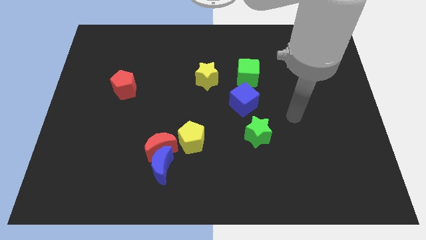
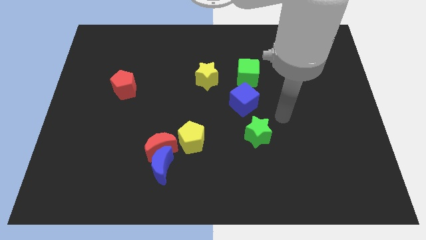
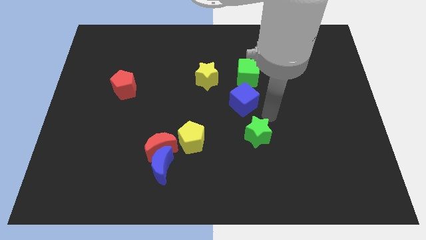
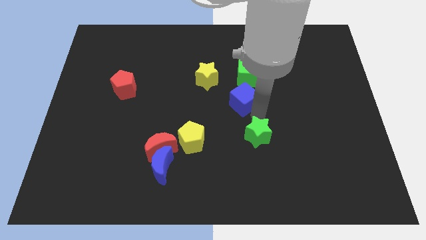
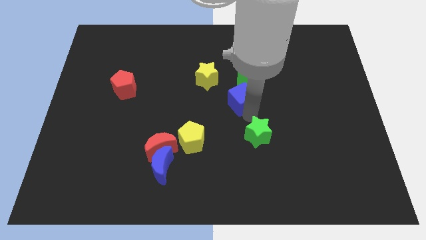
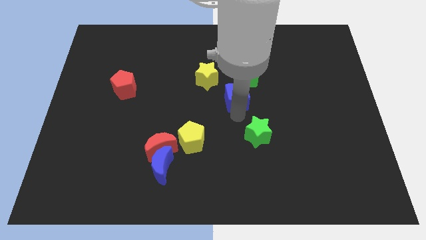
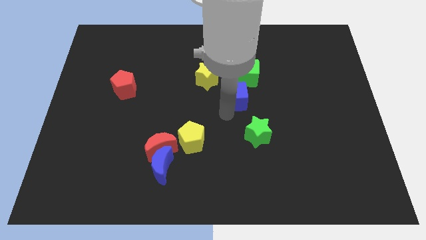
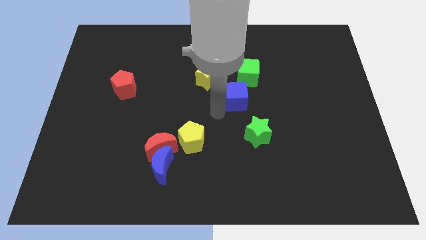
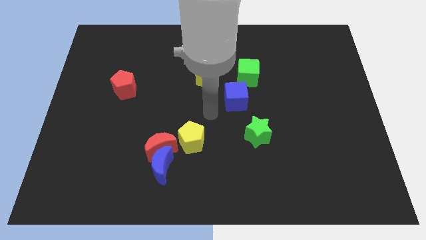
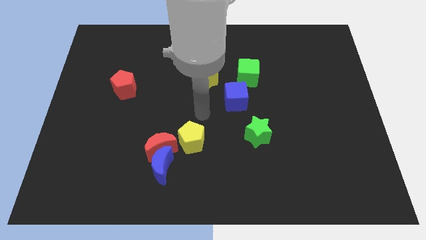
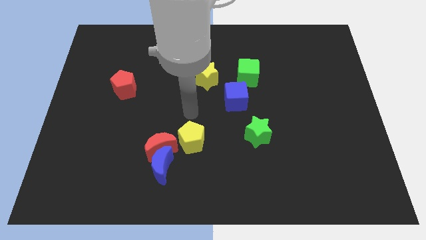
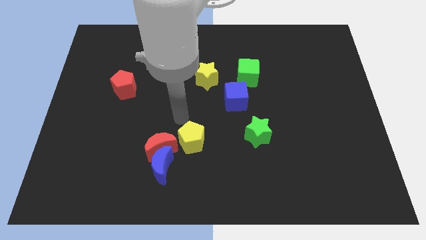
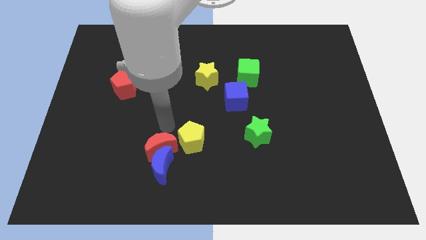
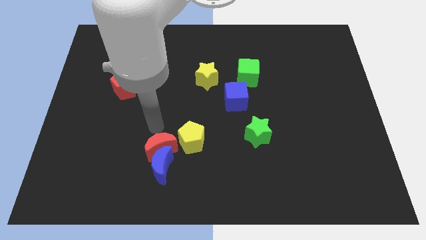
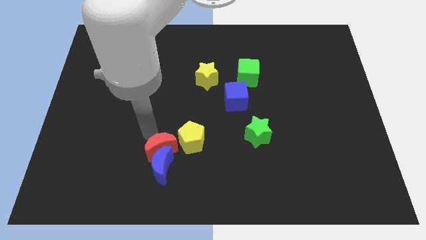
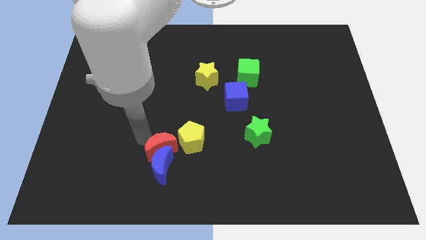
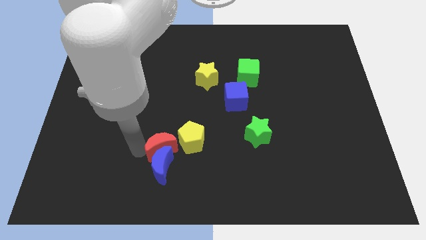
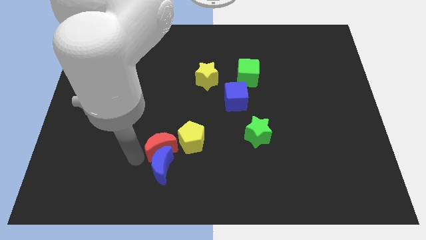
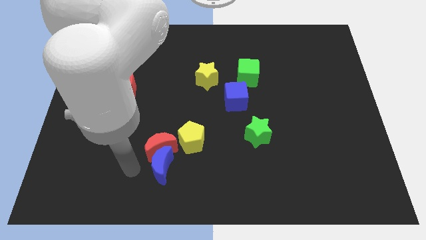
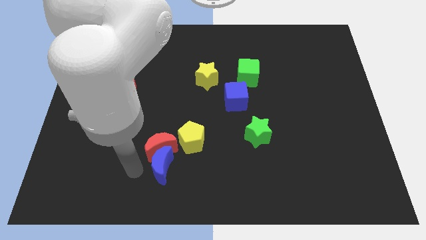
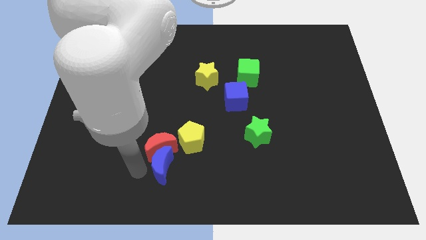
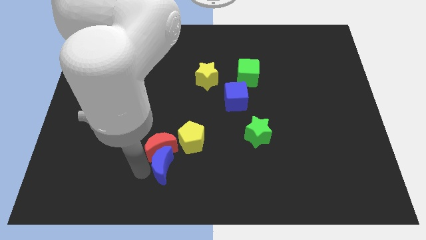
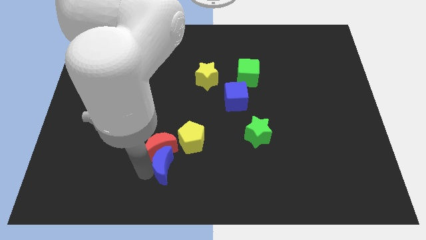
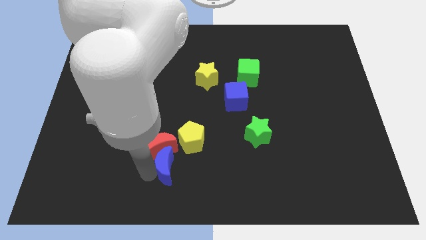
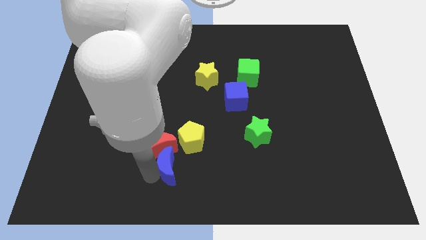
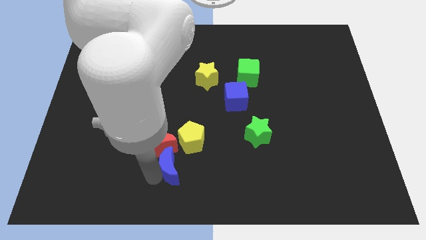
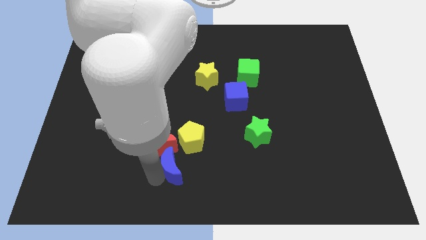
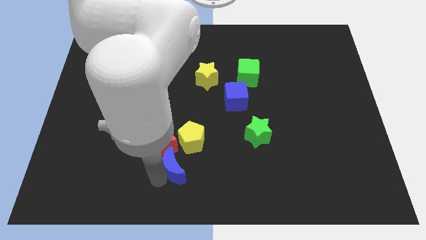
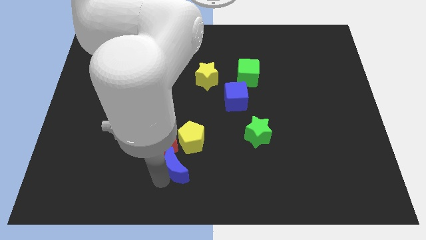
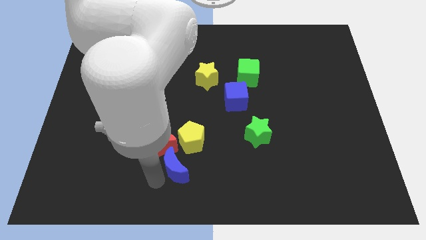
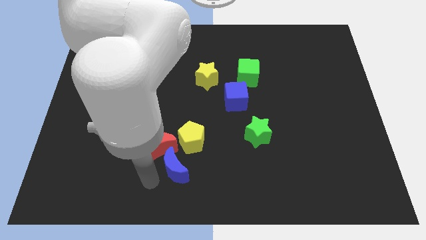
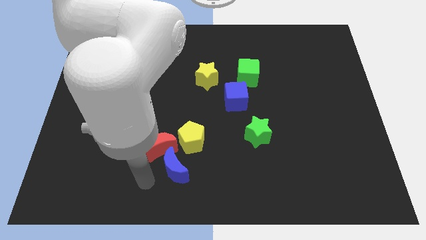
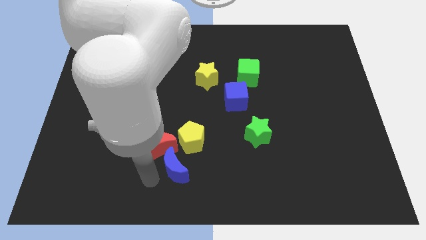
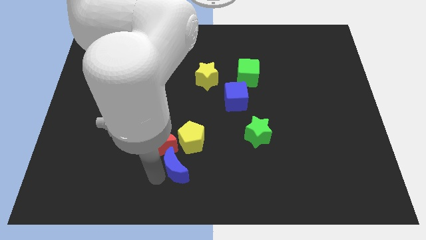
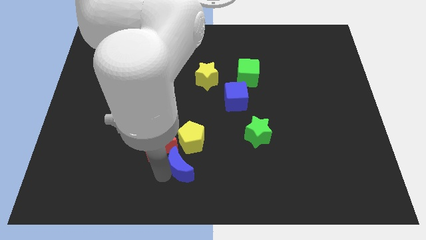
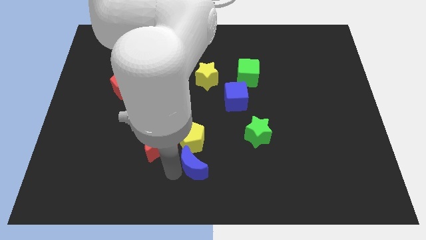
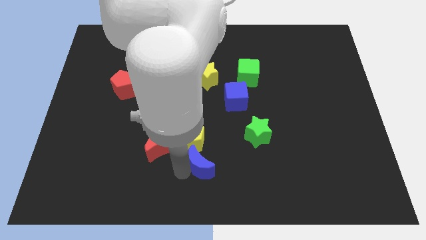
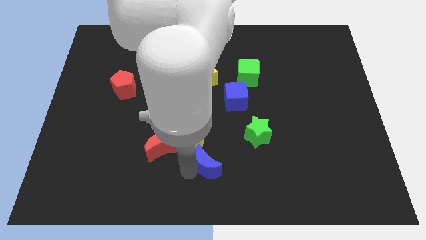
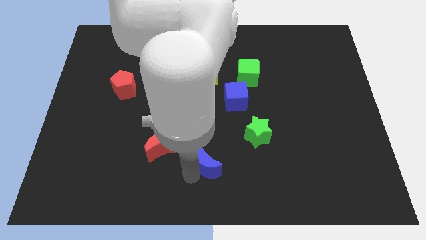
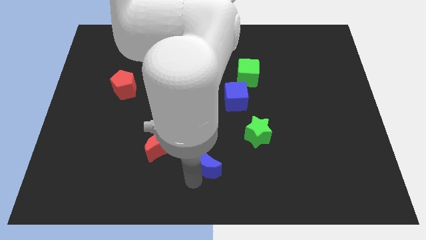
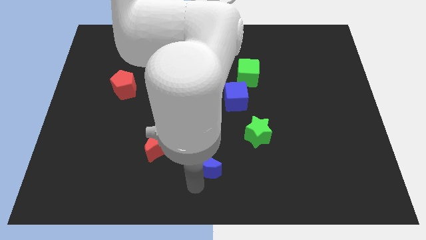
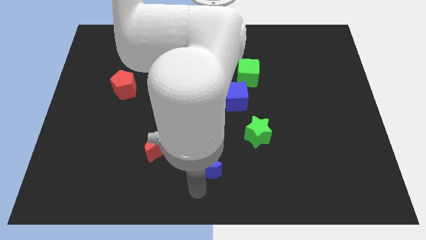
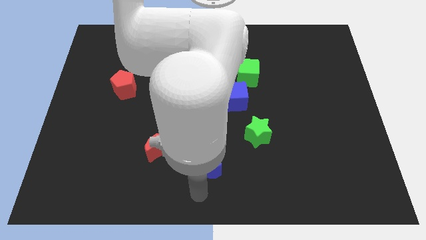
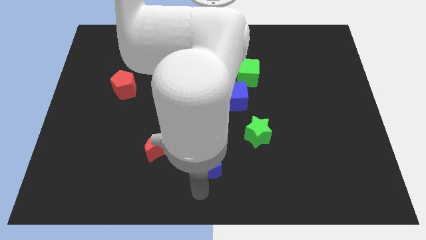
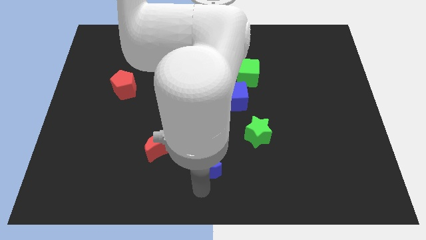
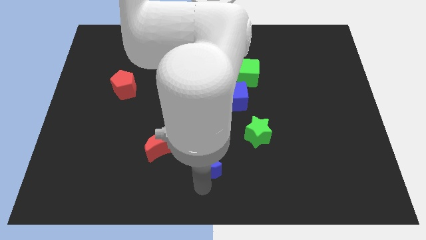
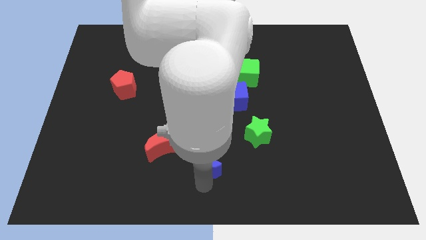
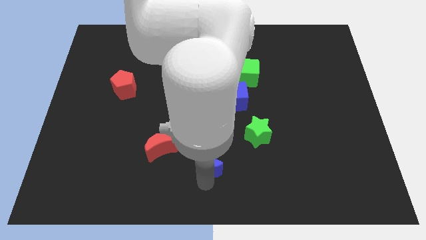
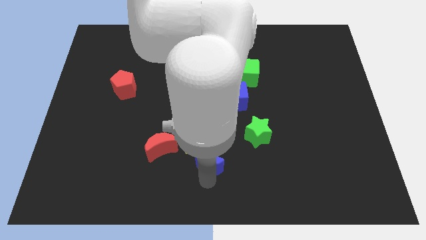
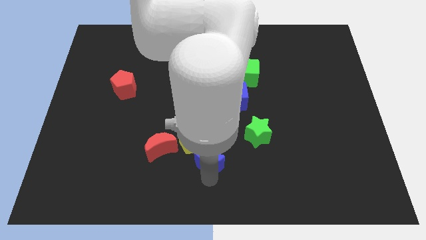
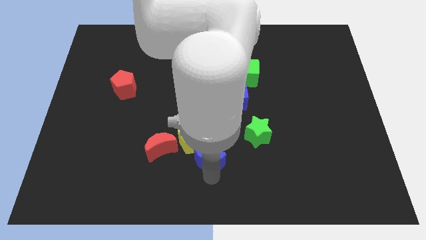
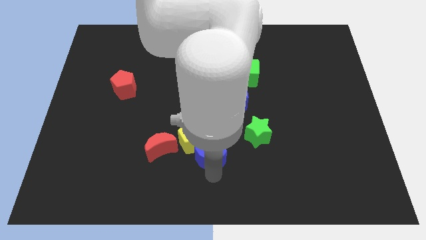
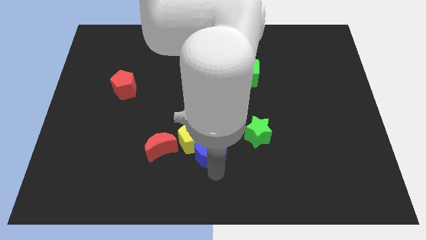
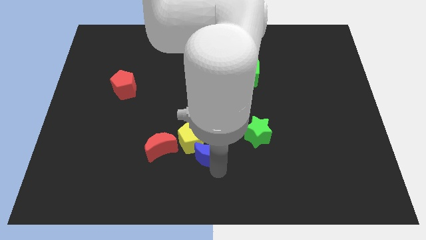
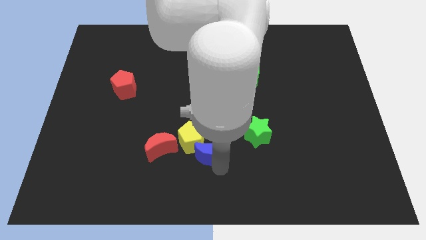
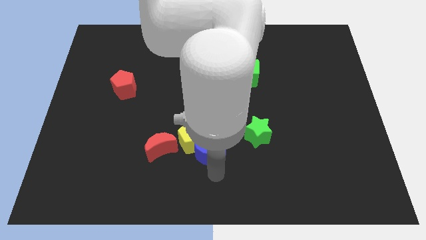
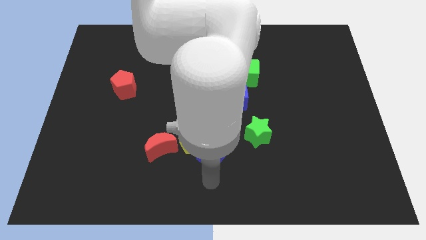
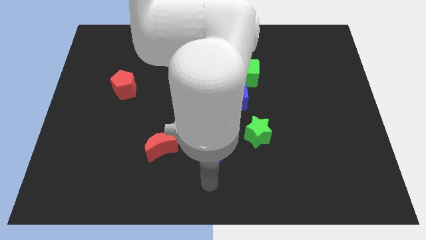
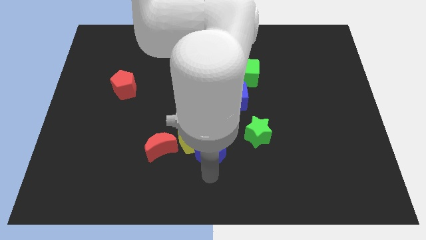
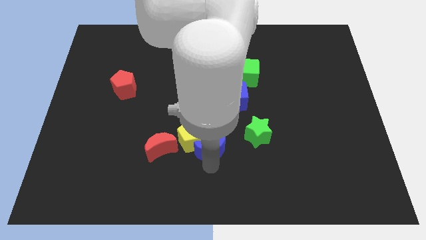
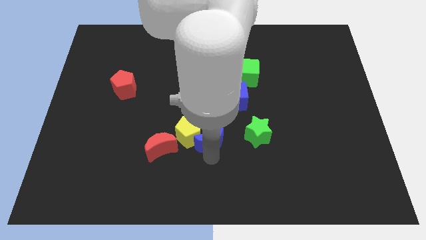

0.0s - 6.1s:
move the blue moon to the middle of the board
